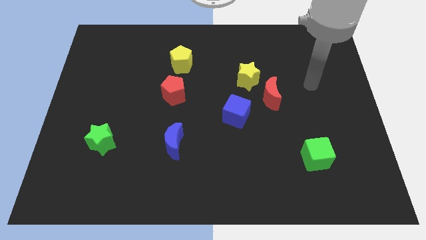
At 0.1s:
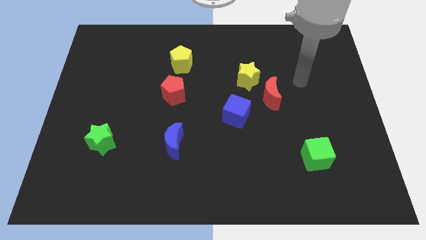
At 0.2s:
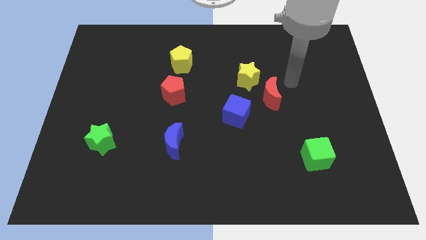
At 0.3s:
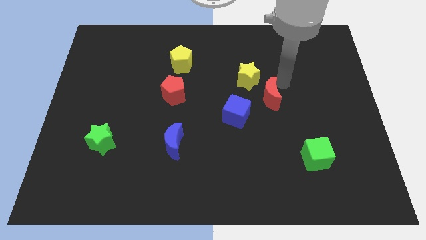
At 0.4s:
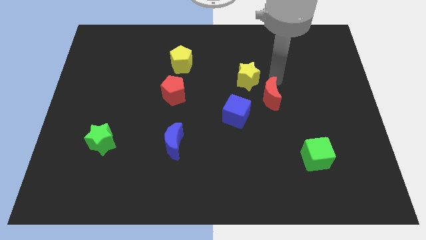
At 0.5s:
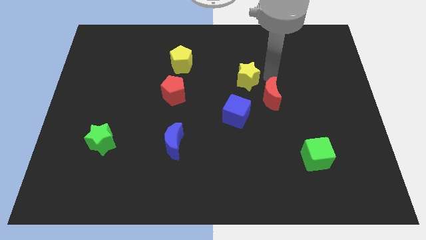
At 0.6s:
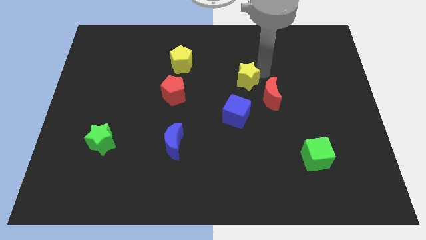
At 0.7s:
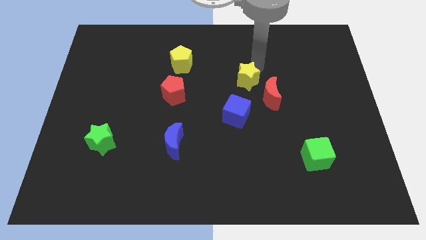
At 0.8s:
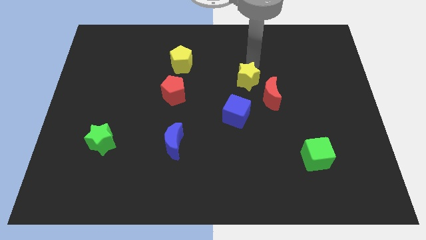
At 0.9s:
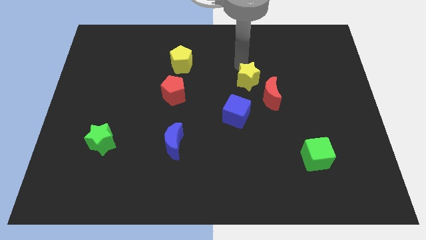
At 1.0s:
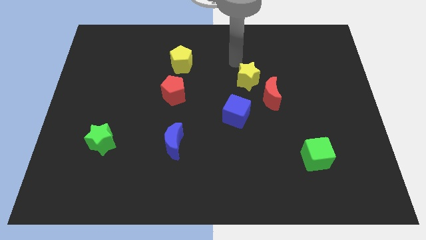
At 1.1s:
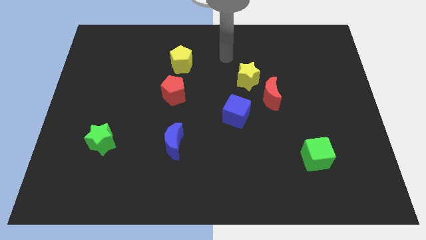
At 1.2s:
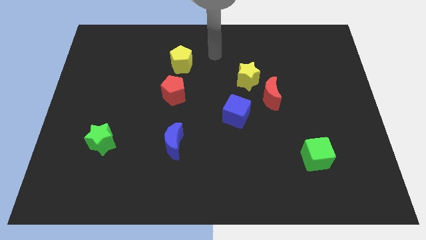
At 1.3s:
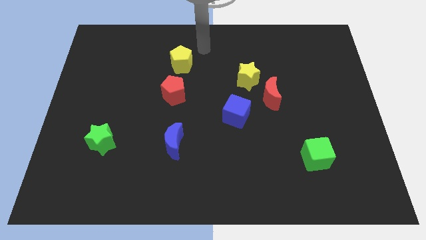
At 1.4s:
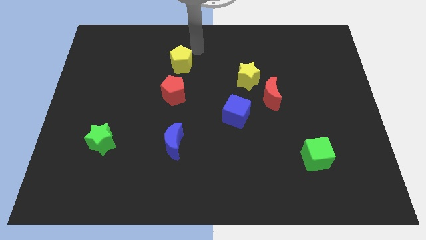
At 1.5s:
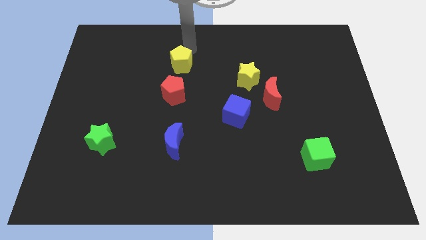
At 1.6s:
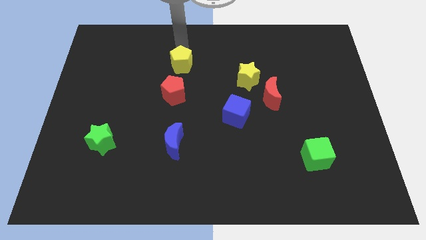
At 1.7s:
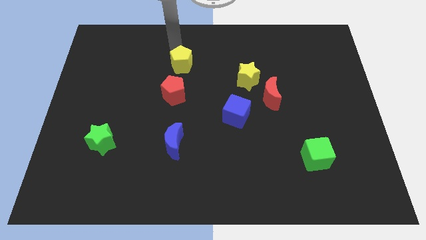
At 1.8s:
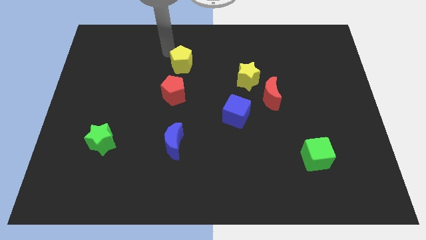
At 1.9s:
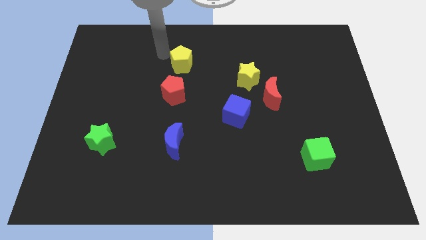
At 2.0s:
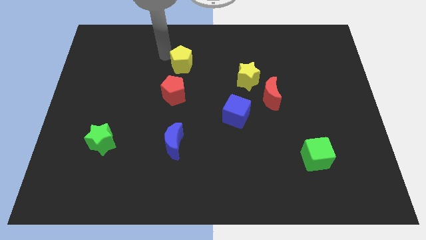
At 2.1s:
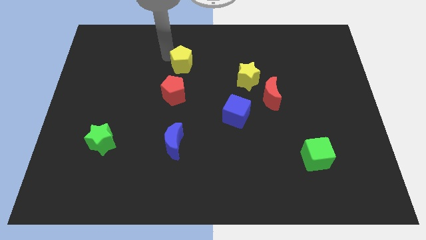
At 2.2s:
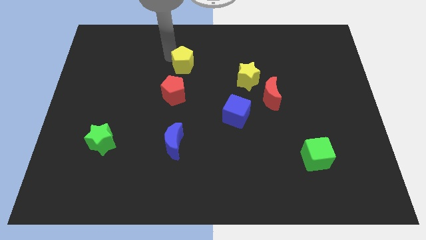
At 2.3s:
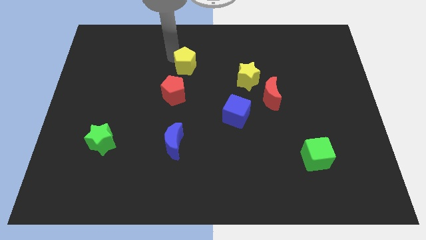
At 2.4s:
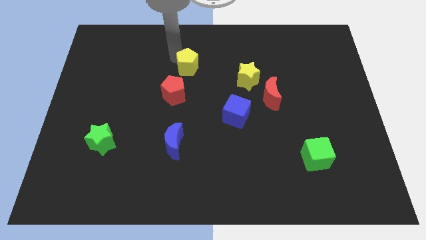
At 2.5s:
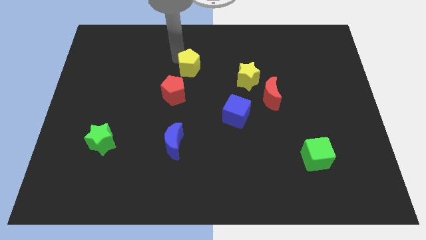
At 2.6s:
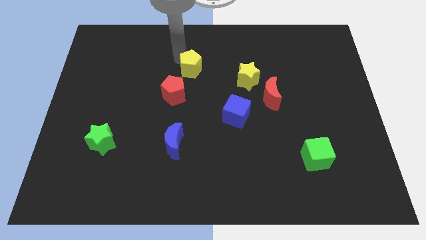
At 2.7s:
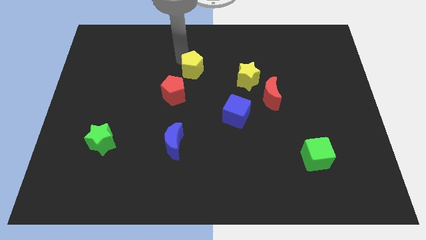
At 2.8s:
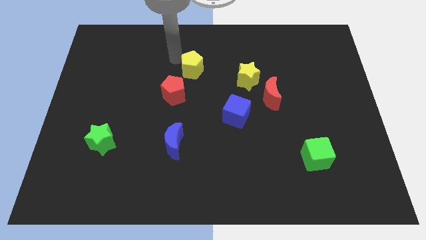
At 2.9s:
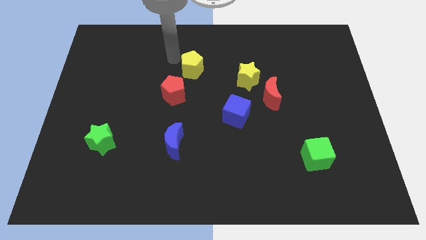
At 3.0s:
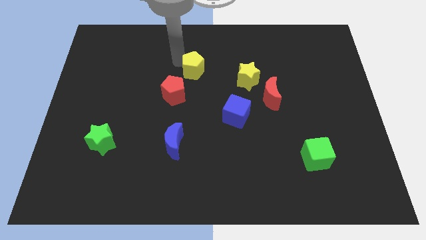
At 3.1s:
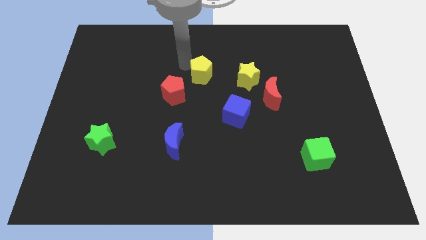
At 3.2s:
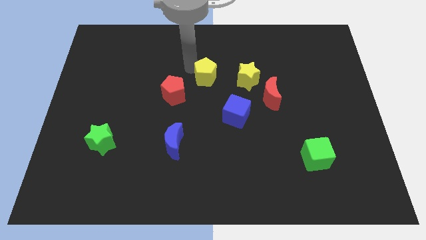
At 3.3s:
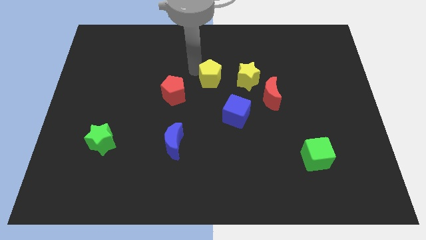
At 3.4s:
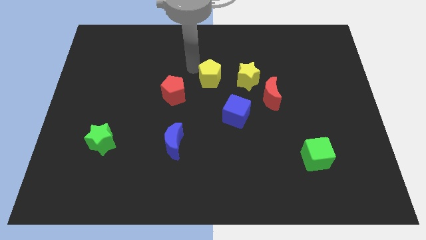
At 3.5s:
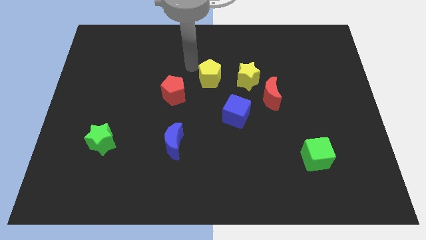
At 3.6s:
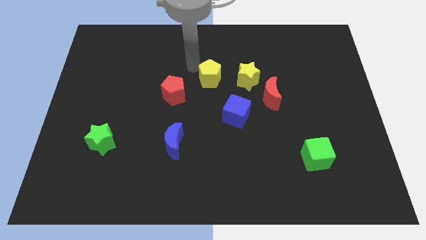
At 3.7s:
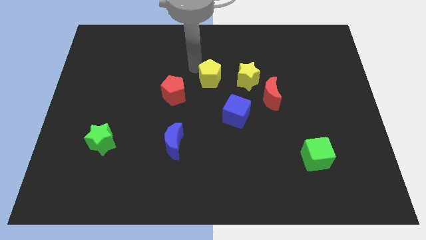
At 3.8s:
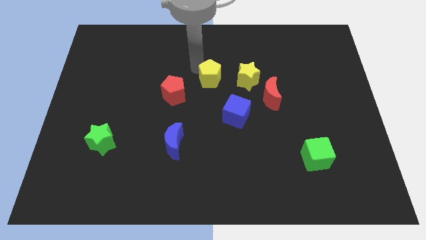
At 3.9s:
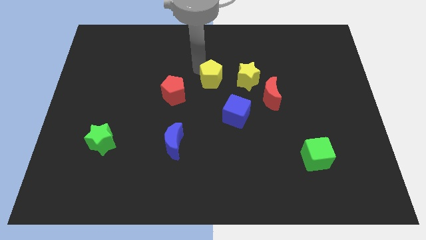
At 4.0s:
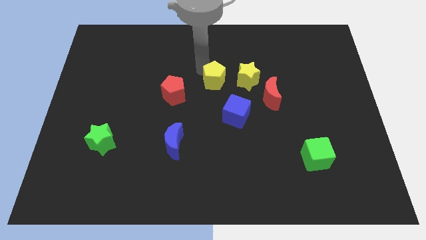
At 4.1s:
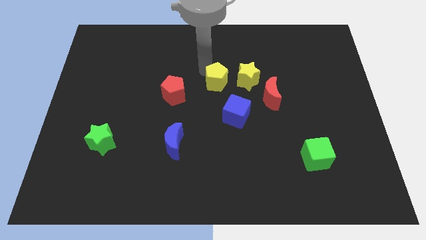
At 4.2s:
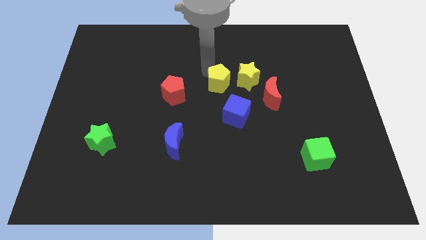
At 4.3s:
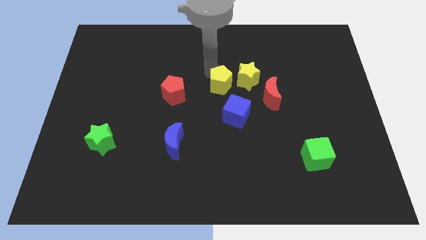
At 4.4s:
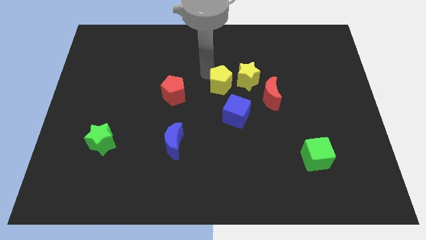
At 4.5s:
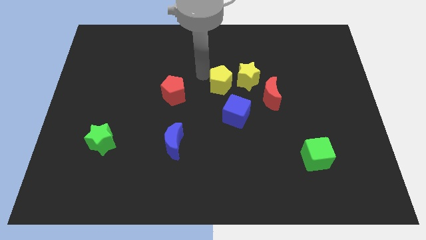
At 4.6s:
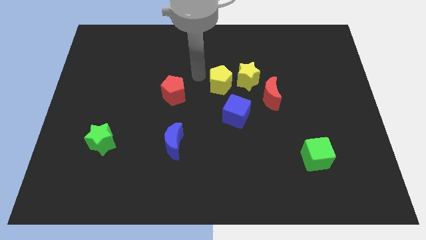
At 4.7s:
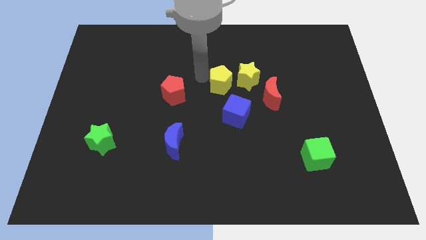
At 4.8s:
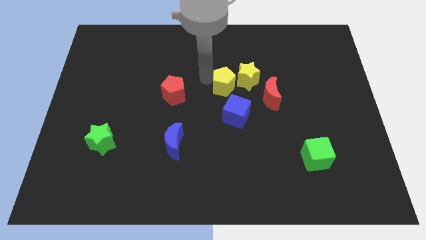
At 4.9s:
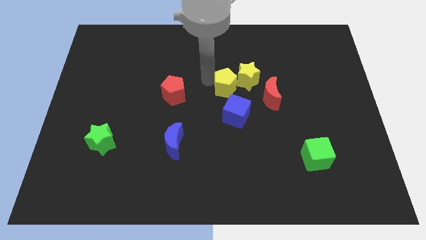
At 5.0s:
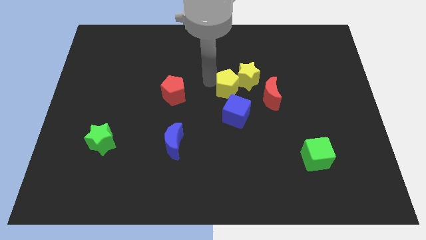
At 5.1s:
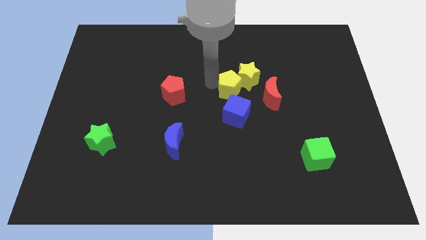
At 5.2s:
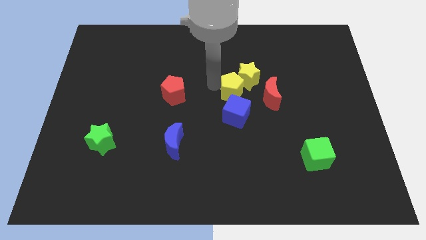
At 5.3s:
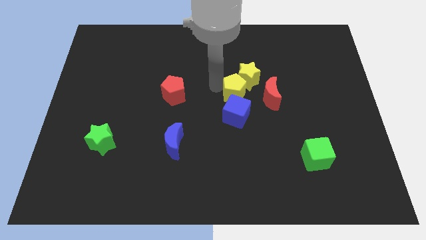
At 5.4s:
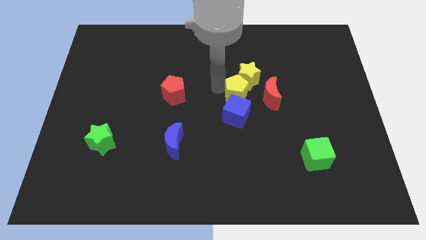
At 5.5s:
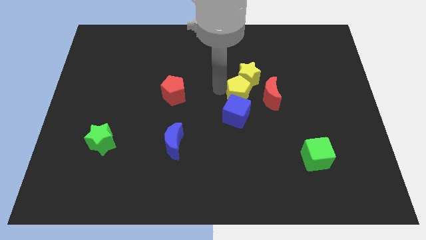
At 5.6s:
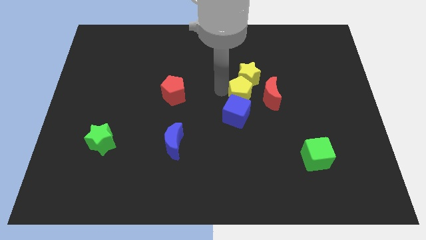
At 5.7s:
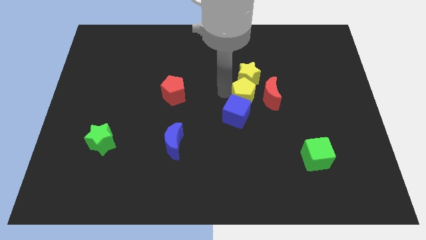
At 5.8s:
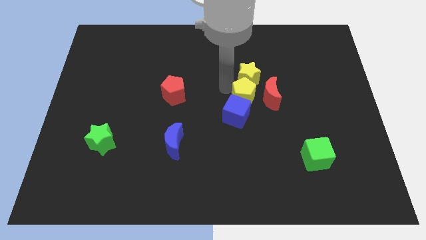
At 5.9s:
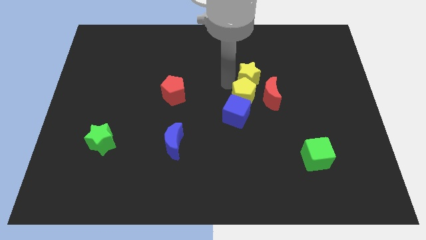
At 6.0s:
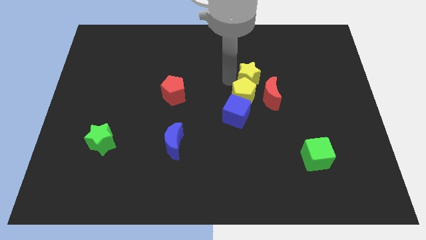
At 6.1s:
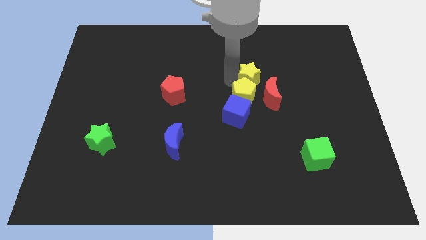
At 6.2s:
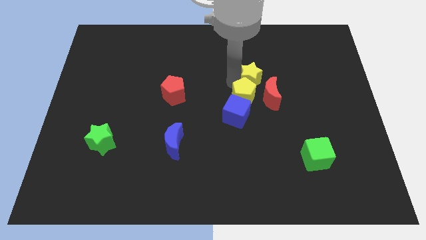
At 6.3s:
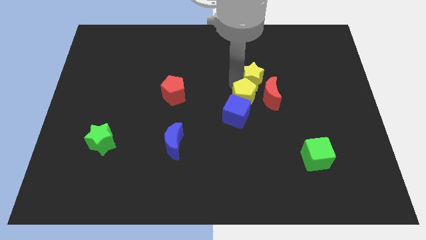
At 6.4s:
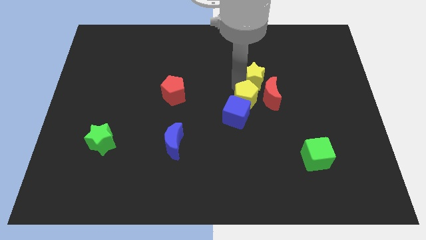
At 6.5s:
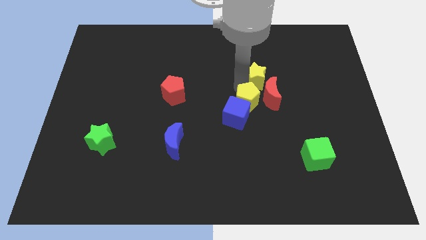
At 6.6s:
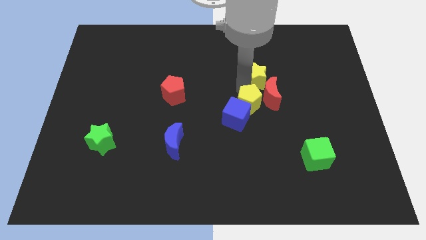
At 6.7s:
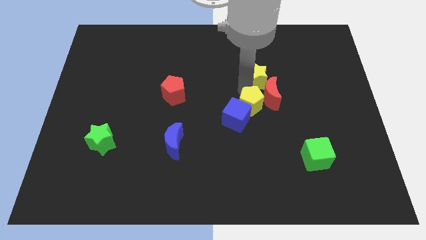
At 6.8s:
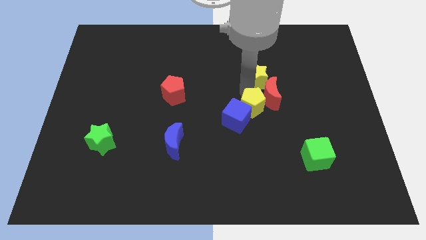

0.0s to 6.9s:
slide the yellow pentagon to the bottom side of the red moon

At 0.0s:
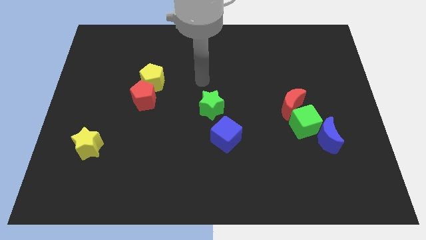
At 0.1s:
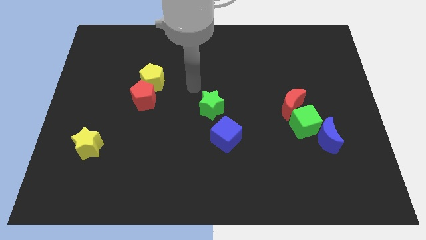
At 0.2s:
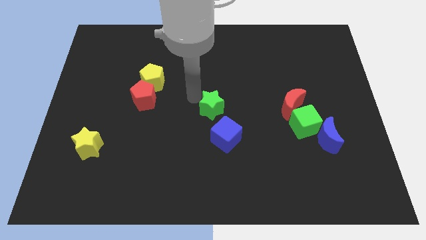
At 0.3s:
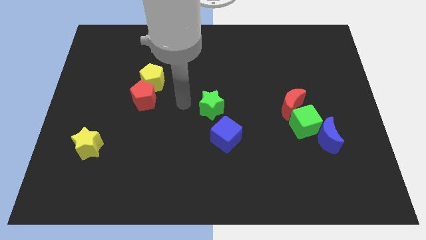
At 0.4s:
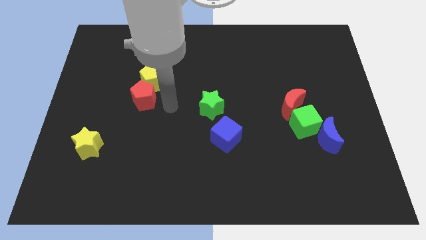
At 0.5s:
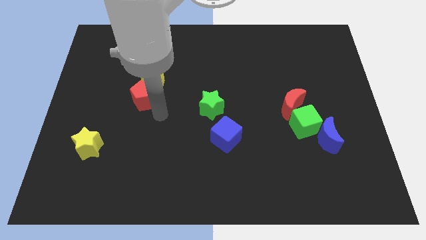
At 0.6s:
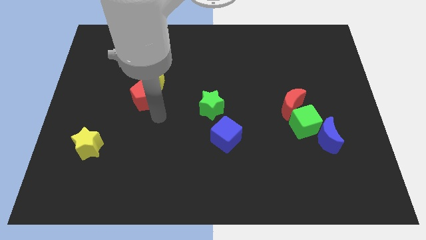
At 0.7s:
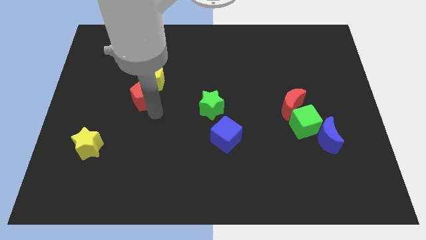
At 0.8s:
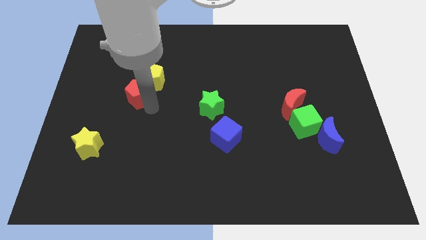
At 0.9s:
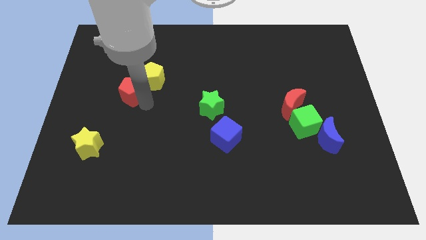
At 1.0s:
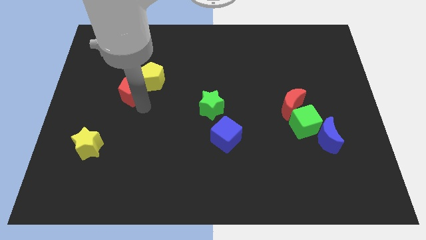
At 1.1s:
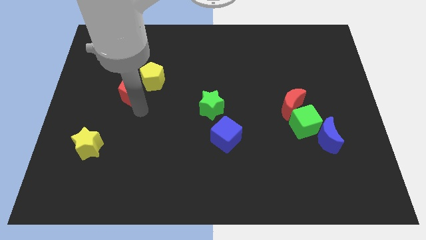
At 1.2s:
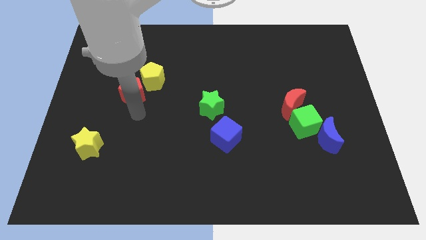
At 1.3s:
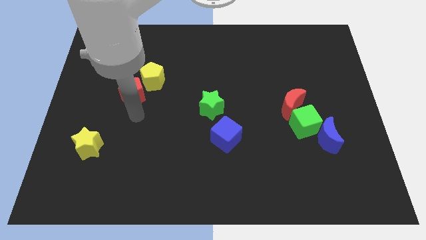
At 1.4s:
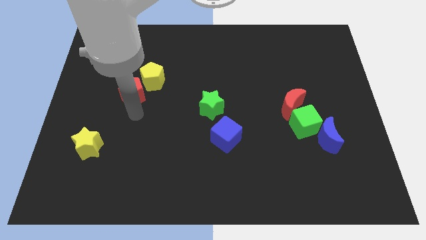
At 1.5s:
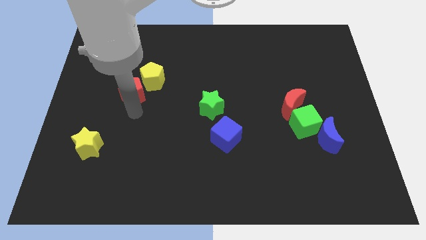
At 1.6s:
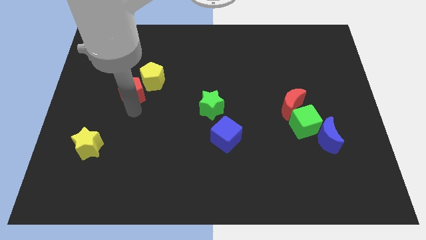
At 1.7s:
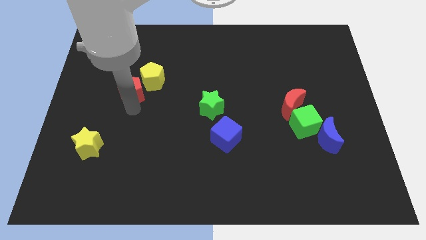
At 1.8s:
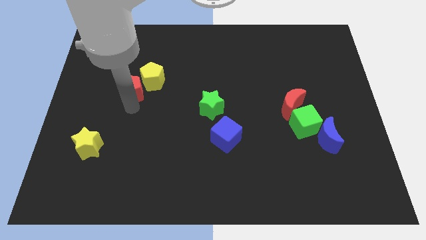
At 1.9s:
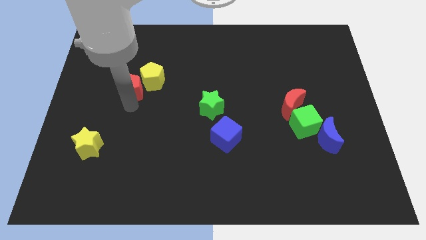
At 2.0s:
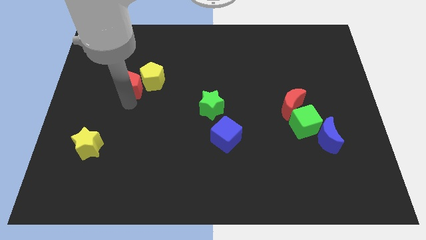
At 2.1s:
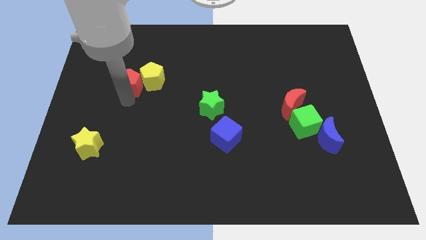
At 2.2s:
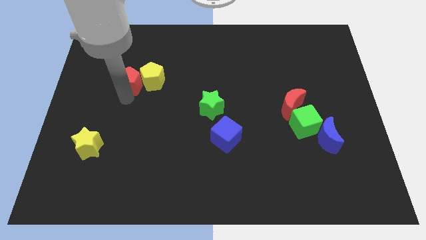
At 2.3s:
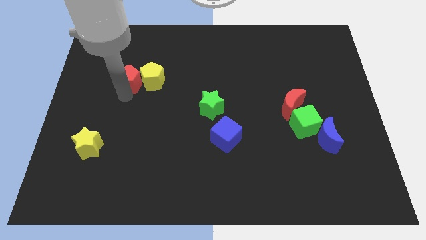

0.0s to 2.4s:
put the red pentagon to the top left side of the yellow pentagon
